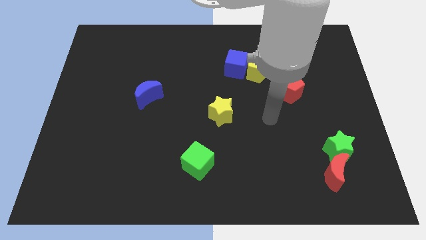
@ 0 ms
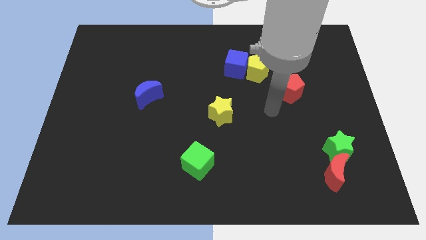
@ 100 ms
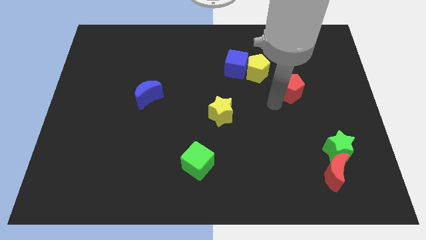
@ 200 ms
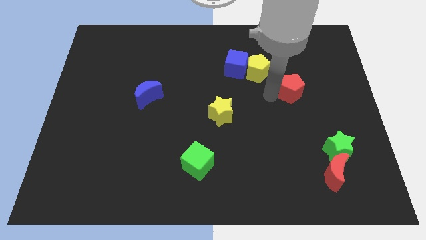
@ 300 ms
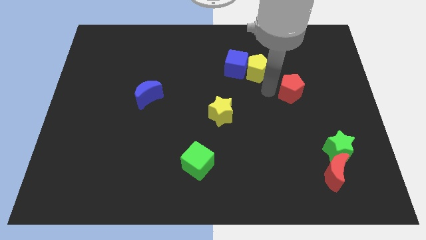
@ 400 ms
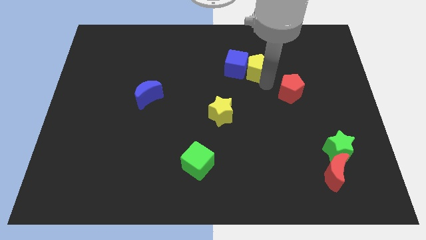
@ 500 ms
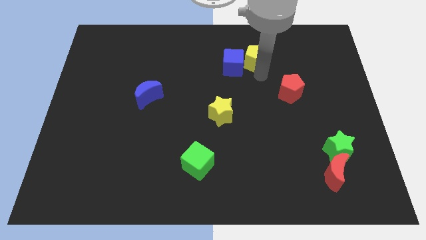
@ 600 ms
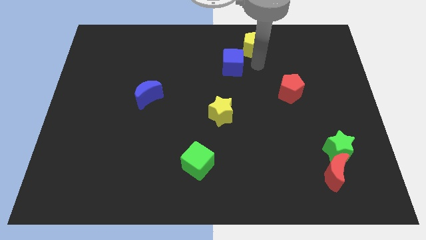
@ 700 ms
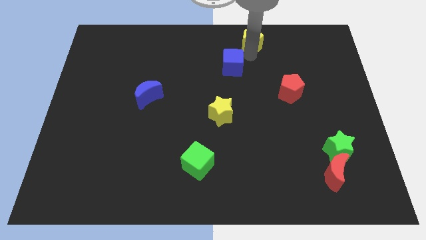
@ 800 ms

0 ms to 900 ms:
pull the blue cube apart from the yellow pentagon

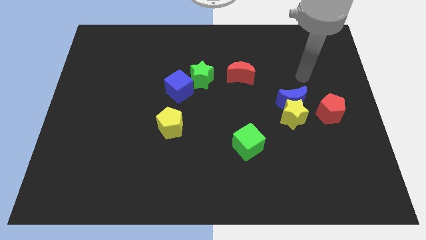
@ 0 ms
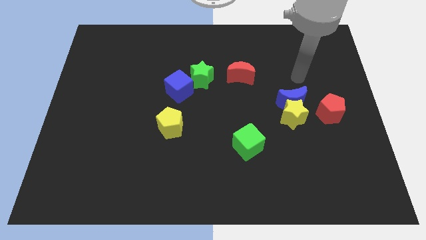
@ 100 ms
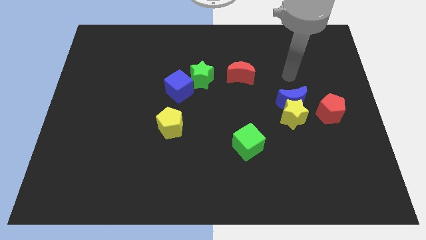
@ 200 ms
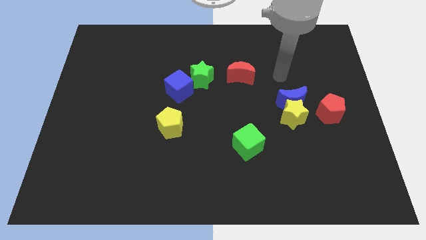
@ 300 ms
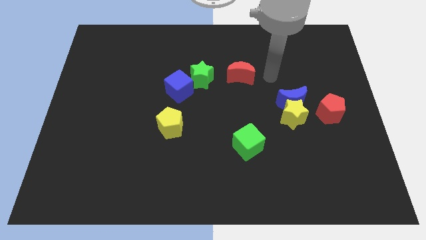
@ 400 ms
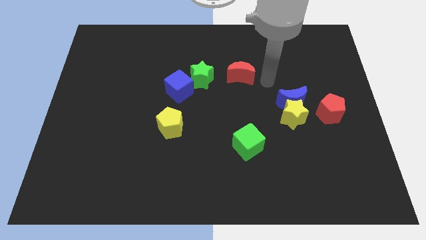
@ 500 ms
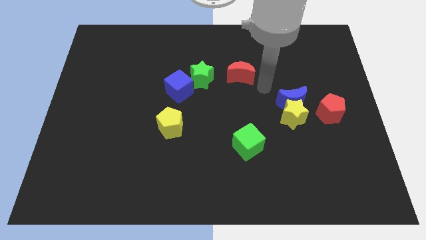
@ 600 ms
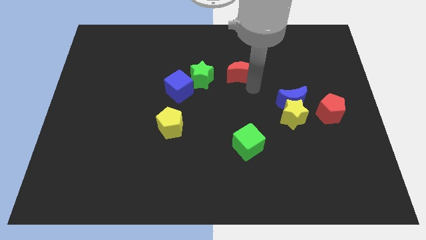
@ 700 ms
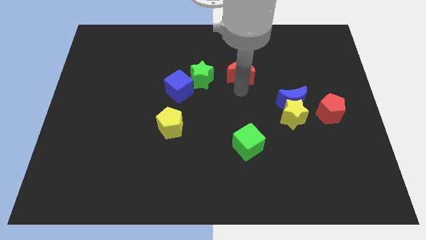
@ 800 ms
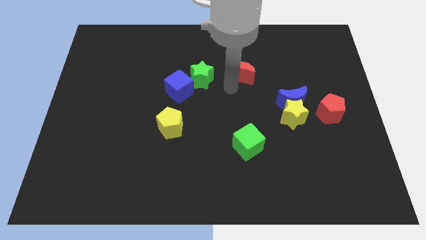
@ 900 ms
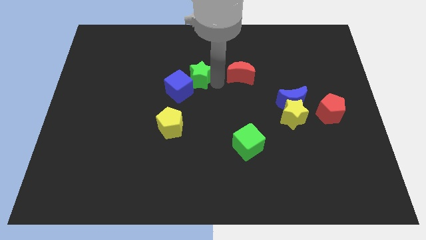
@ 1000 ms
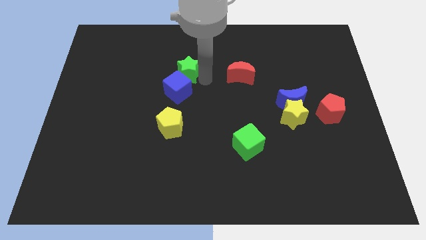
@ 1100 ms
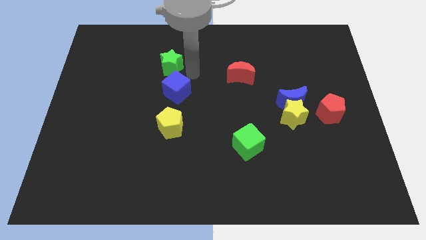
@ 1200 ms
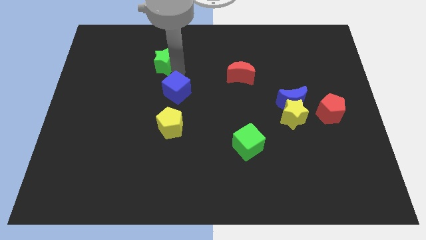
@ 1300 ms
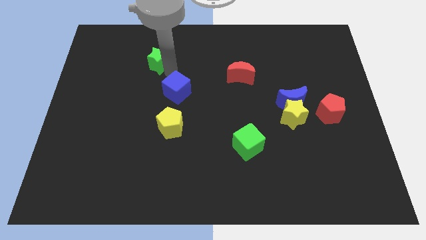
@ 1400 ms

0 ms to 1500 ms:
move the blue cube away from the green star

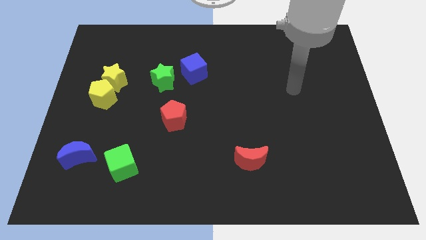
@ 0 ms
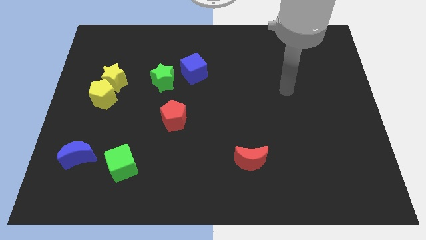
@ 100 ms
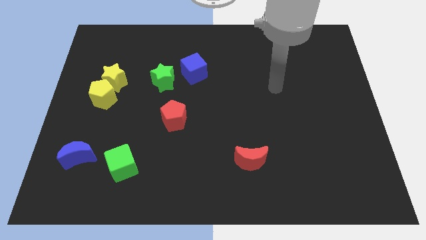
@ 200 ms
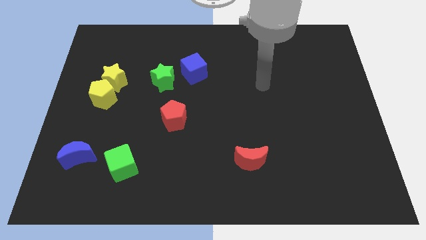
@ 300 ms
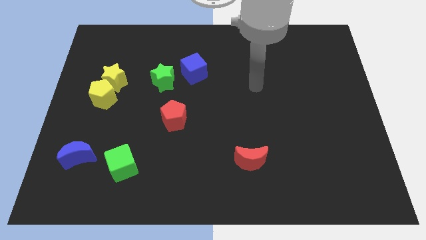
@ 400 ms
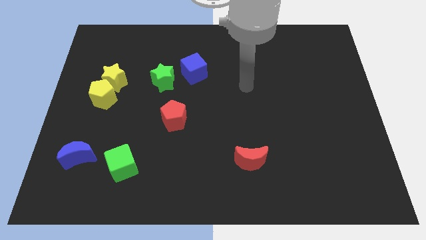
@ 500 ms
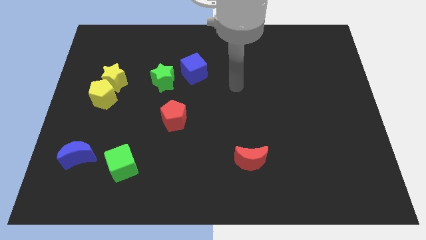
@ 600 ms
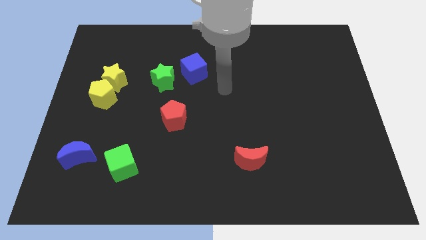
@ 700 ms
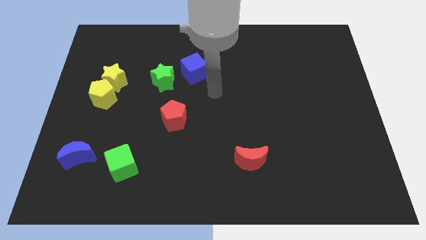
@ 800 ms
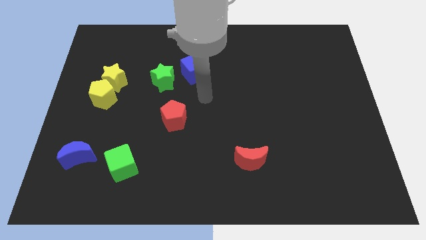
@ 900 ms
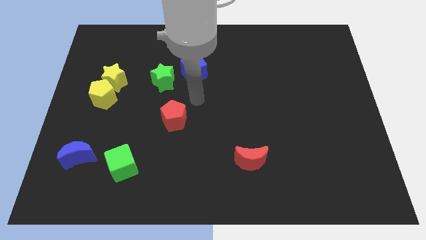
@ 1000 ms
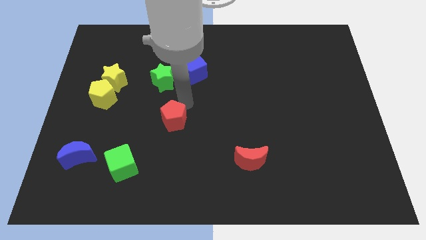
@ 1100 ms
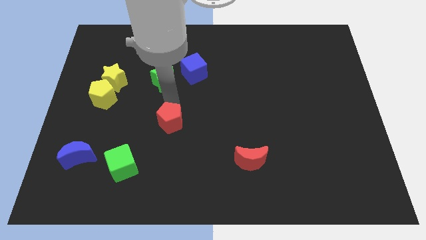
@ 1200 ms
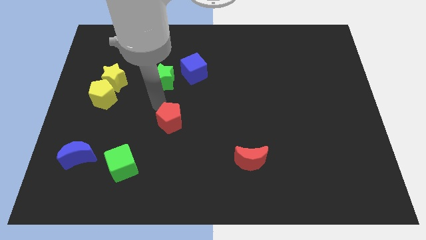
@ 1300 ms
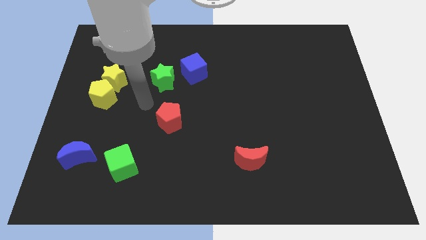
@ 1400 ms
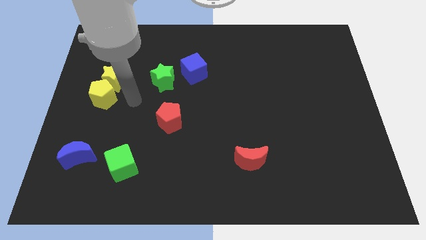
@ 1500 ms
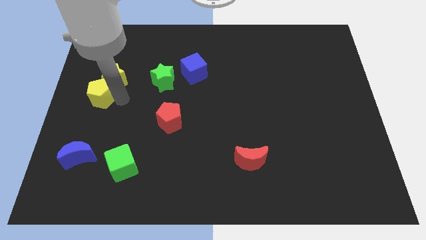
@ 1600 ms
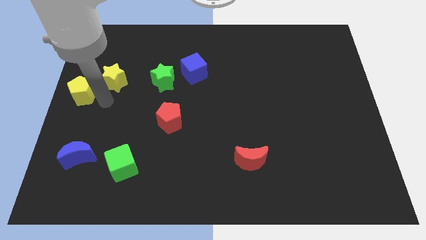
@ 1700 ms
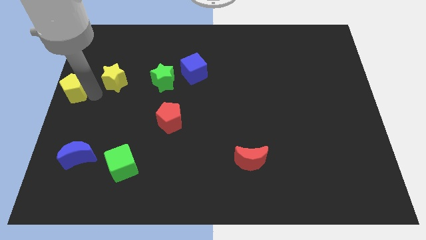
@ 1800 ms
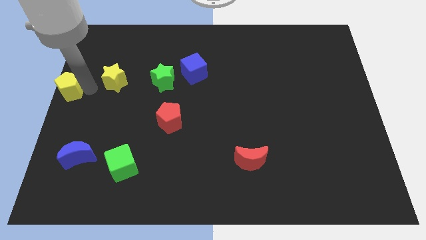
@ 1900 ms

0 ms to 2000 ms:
pull the yellow star apart from the yellow pentagon

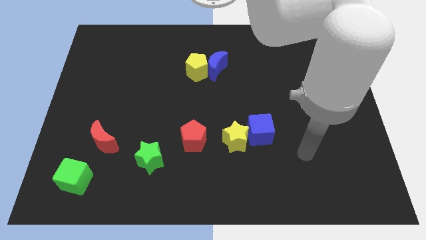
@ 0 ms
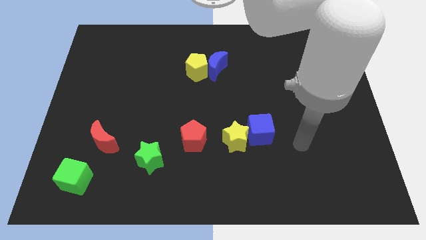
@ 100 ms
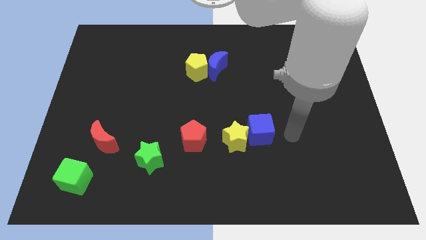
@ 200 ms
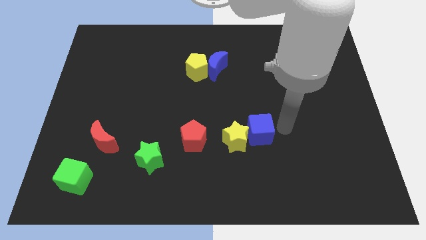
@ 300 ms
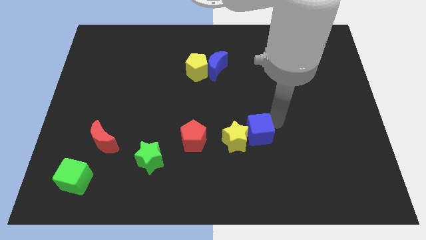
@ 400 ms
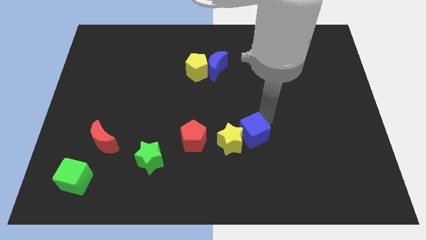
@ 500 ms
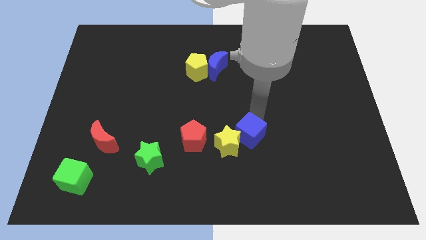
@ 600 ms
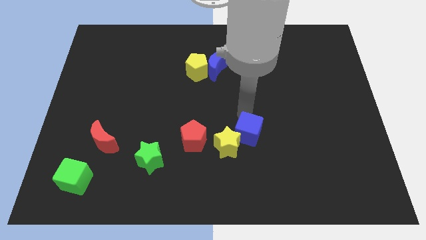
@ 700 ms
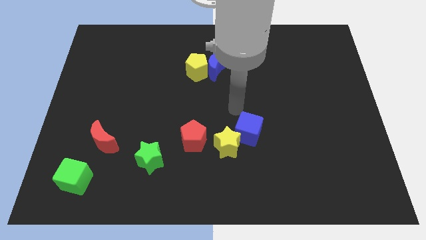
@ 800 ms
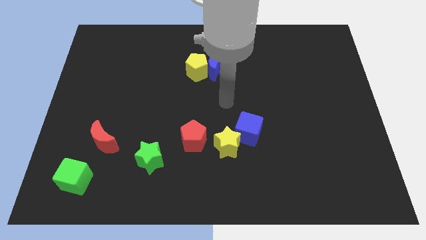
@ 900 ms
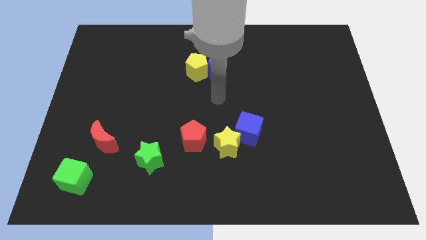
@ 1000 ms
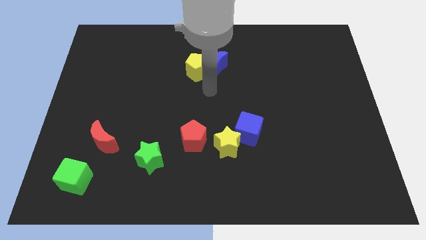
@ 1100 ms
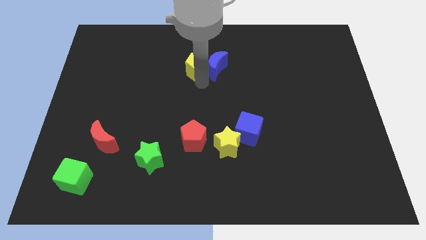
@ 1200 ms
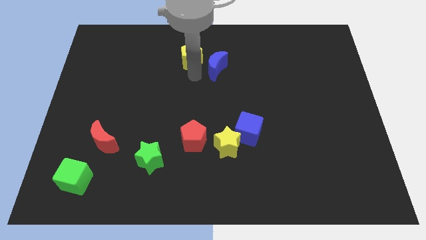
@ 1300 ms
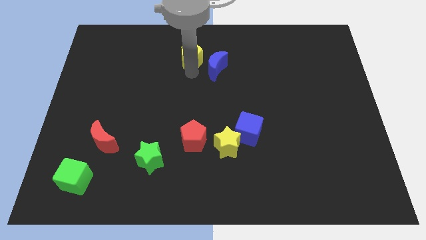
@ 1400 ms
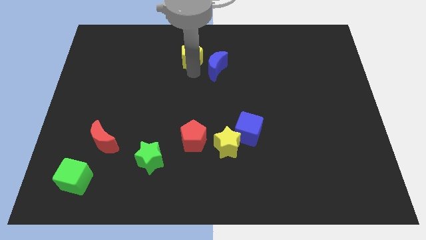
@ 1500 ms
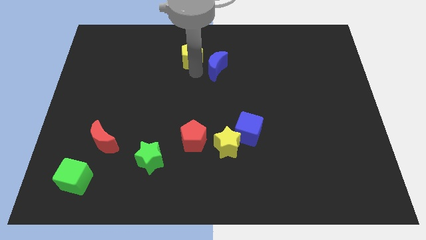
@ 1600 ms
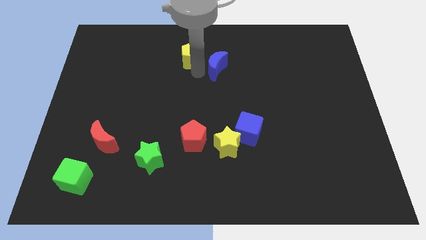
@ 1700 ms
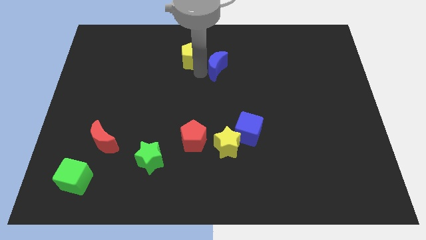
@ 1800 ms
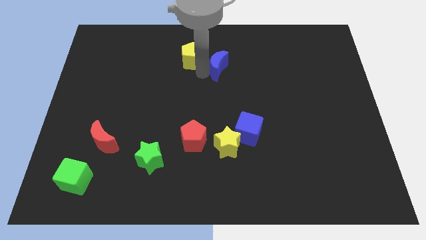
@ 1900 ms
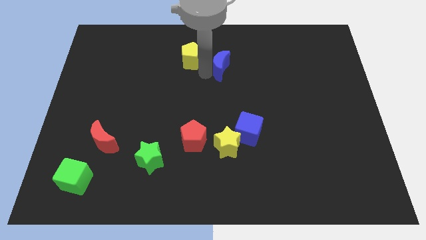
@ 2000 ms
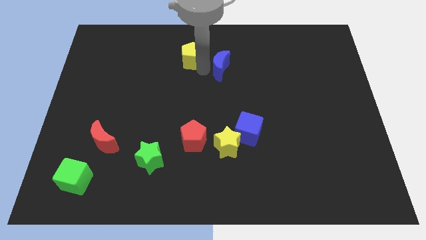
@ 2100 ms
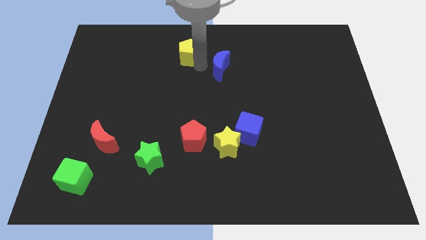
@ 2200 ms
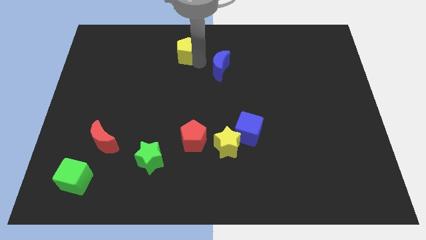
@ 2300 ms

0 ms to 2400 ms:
move the blue moon away from the yellow pentagon

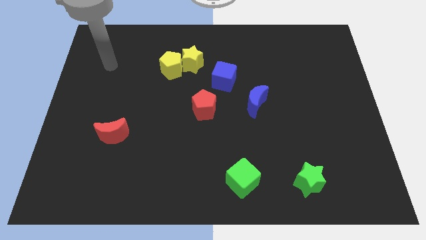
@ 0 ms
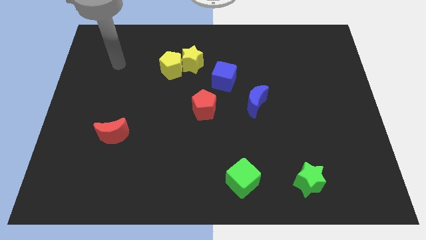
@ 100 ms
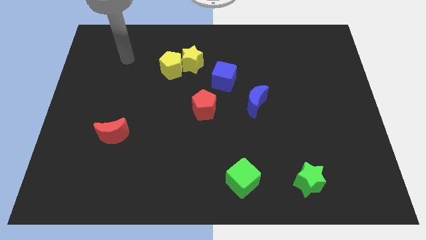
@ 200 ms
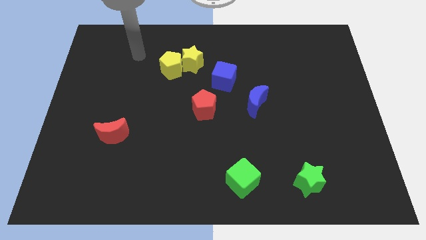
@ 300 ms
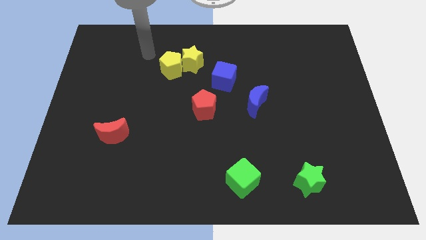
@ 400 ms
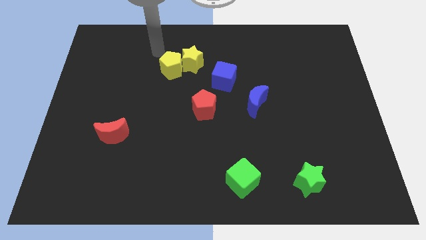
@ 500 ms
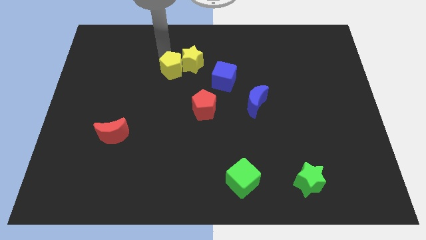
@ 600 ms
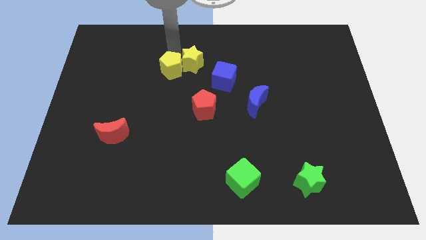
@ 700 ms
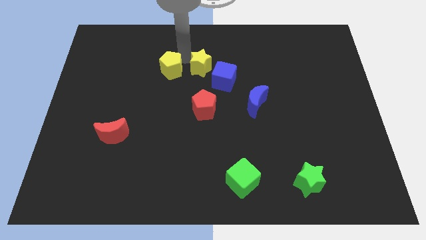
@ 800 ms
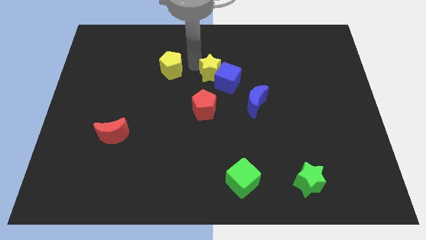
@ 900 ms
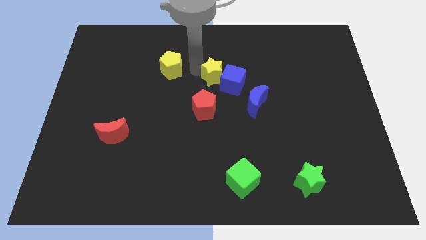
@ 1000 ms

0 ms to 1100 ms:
move the yellow pentagon away from the yellow star

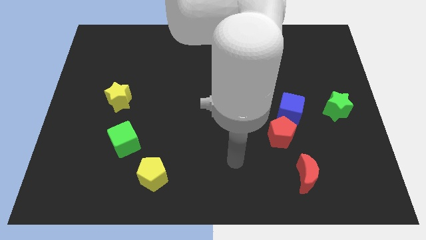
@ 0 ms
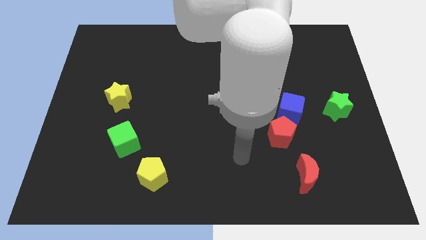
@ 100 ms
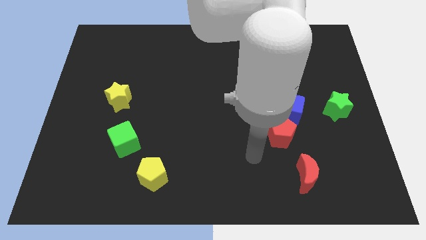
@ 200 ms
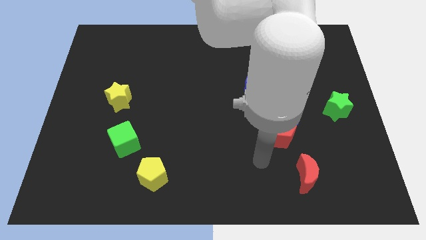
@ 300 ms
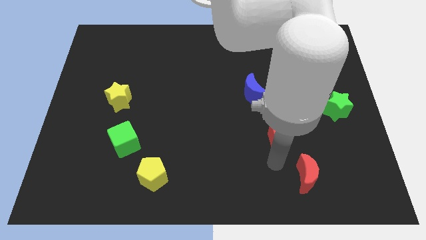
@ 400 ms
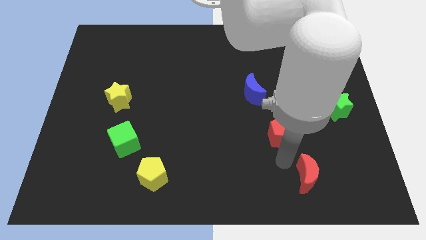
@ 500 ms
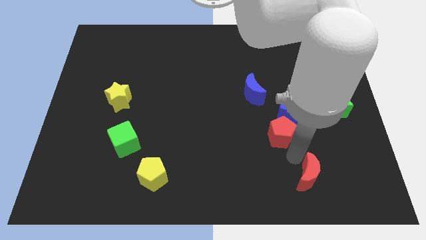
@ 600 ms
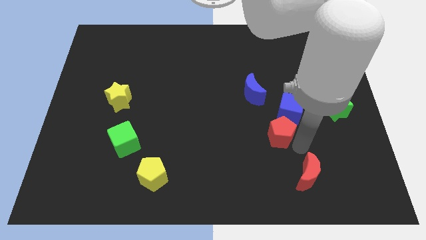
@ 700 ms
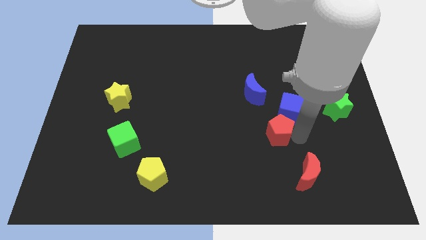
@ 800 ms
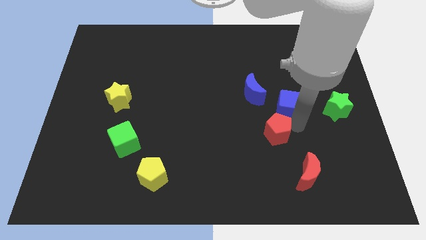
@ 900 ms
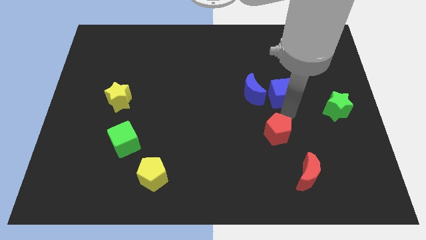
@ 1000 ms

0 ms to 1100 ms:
separate the red pentagon from the blue cube

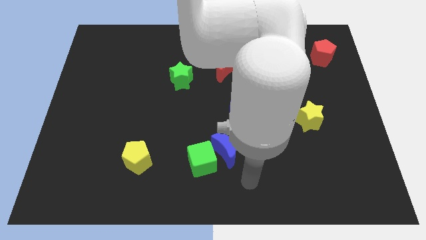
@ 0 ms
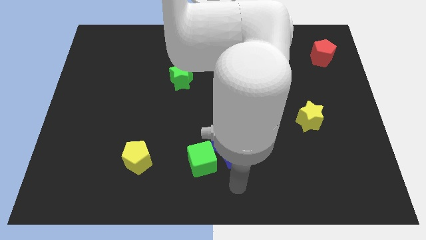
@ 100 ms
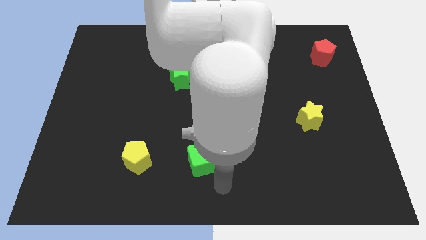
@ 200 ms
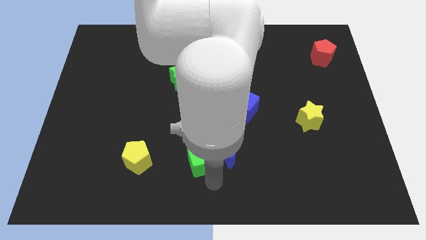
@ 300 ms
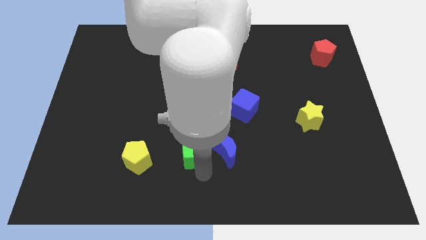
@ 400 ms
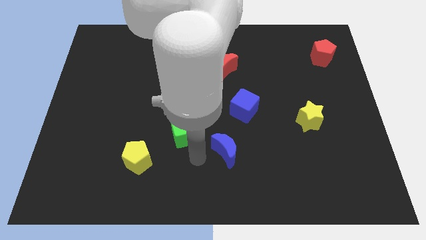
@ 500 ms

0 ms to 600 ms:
separate the blue moon from the green cube
